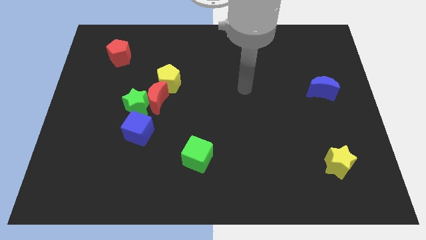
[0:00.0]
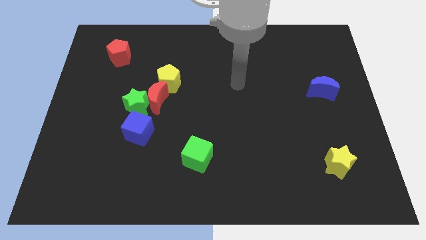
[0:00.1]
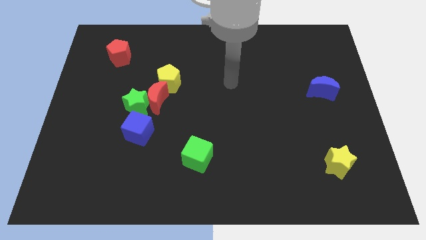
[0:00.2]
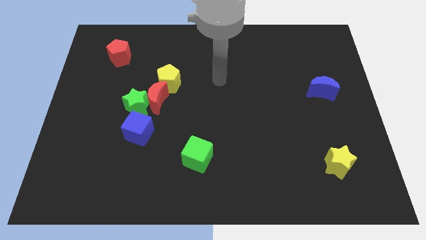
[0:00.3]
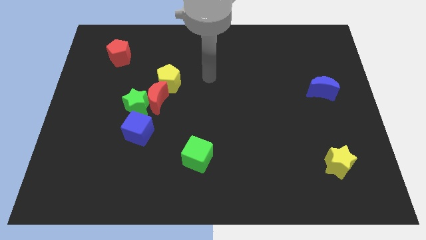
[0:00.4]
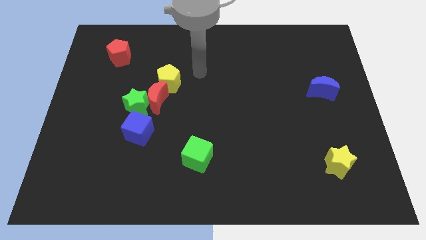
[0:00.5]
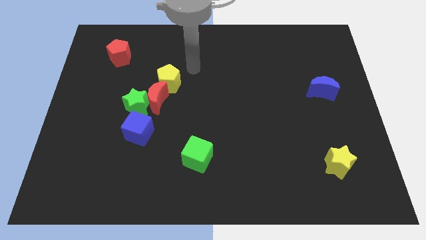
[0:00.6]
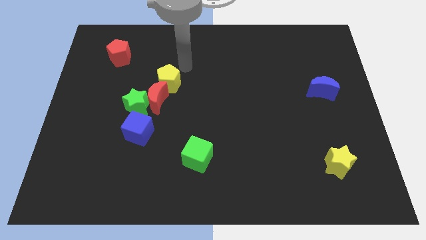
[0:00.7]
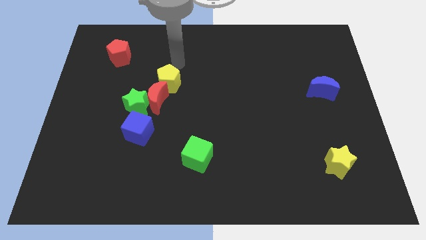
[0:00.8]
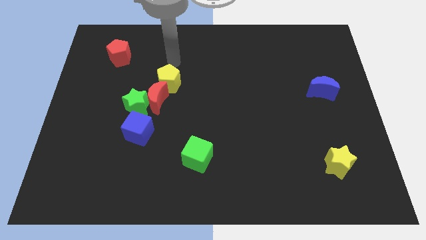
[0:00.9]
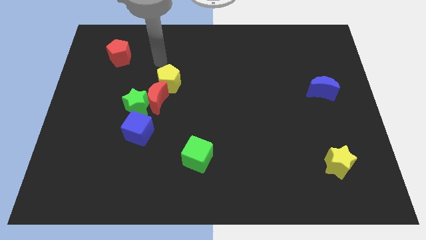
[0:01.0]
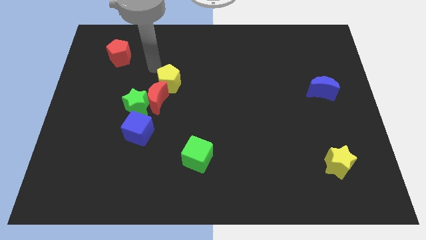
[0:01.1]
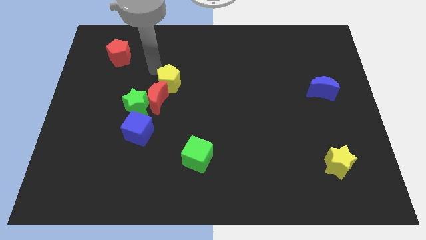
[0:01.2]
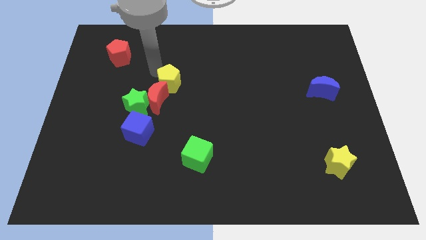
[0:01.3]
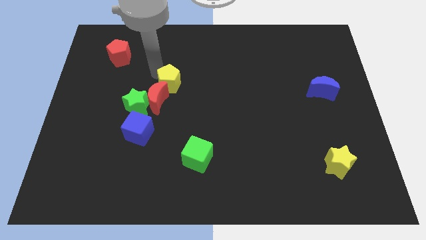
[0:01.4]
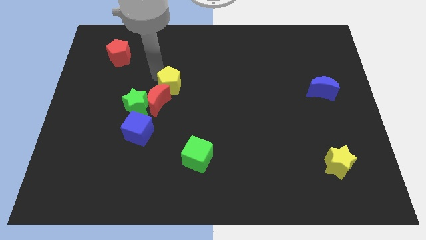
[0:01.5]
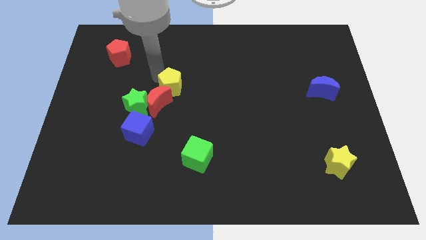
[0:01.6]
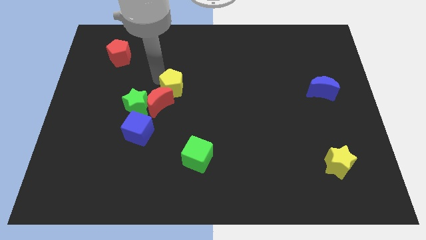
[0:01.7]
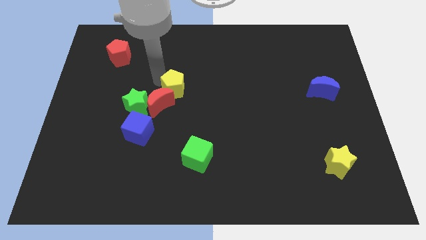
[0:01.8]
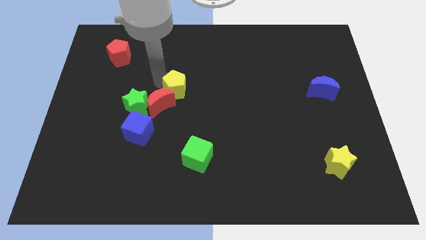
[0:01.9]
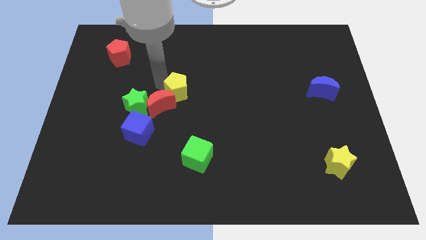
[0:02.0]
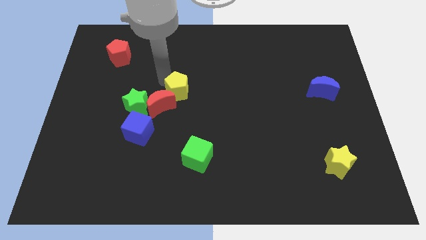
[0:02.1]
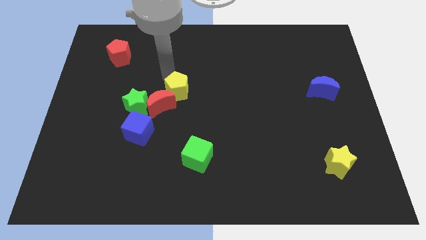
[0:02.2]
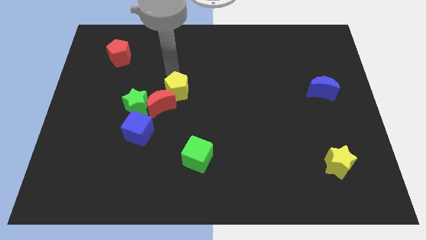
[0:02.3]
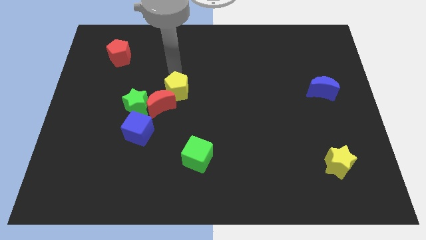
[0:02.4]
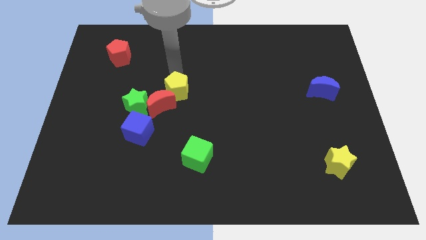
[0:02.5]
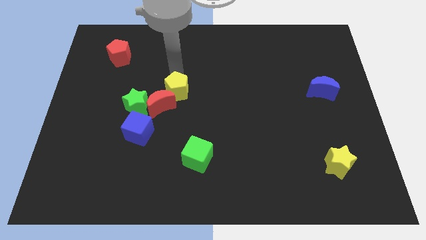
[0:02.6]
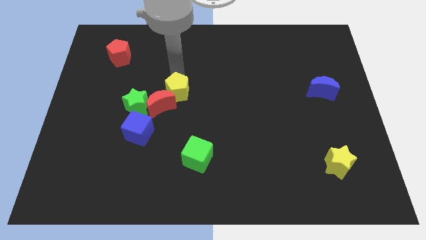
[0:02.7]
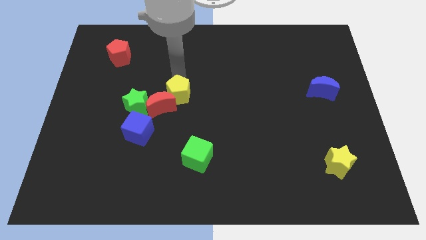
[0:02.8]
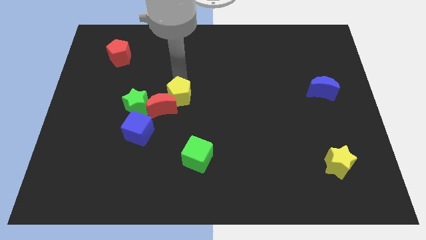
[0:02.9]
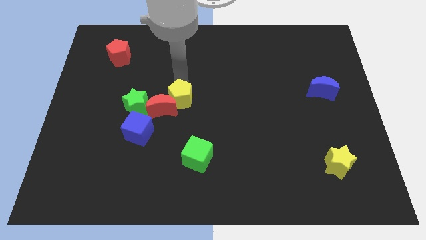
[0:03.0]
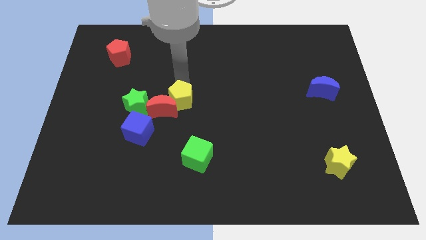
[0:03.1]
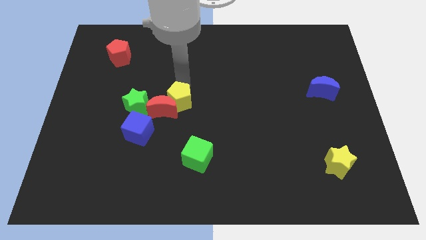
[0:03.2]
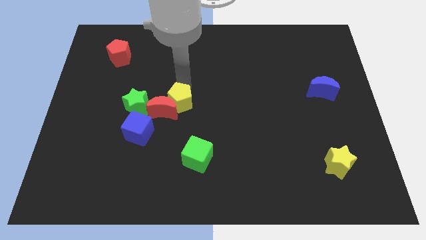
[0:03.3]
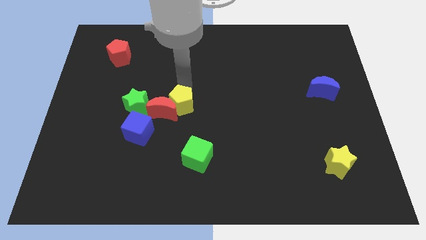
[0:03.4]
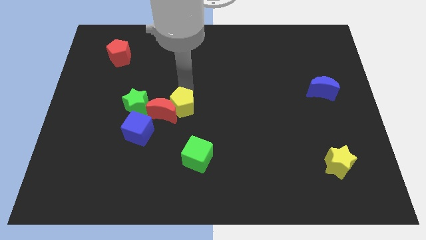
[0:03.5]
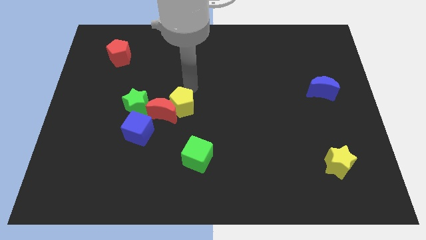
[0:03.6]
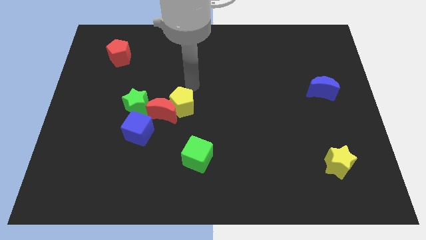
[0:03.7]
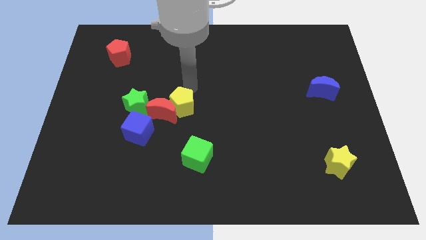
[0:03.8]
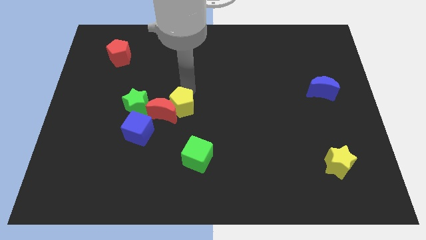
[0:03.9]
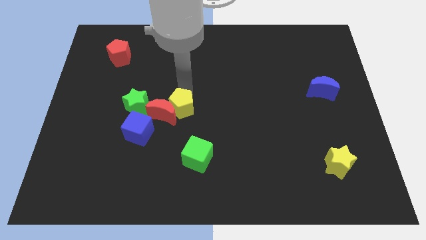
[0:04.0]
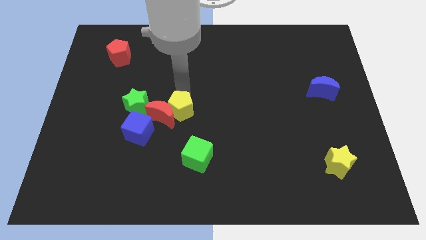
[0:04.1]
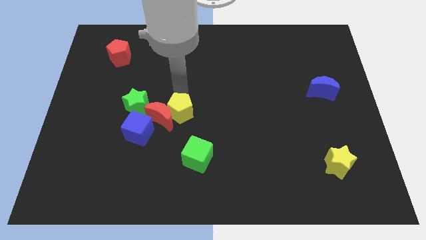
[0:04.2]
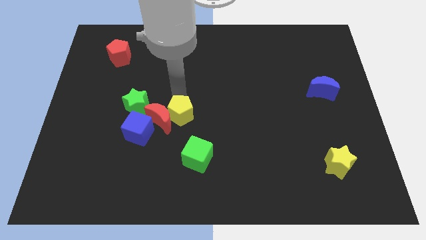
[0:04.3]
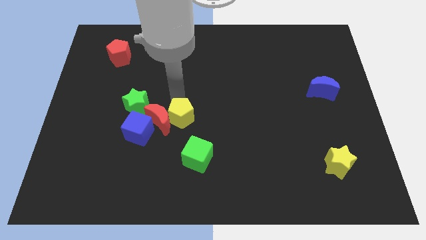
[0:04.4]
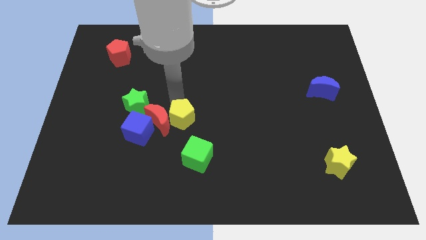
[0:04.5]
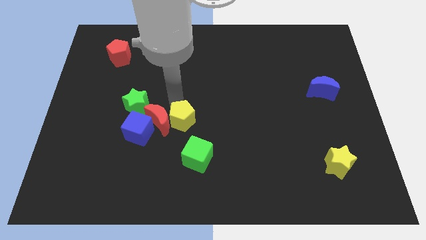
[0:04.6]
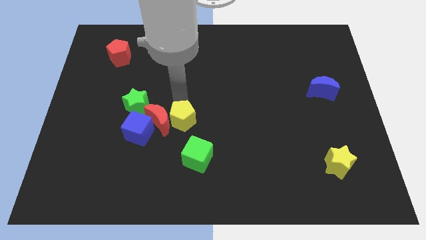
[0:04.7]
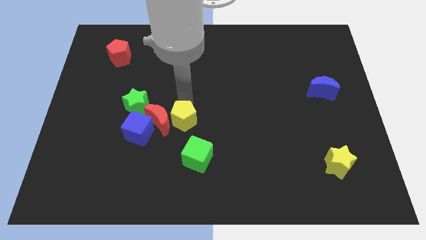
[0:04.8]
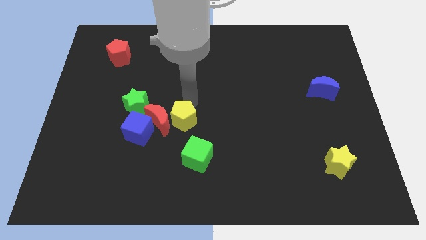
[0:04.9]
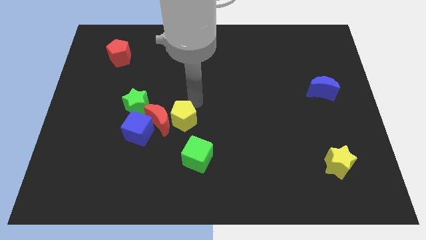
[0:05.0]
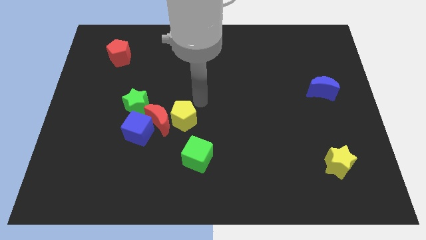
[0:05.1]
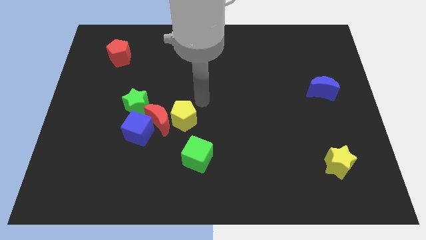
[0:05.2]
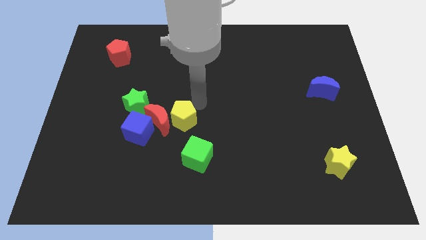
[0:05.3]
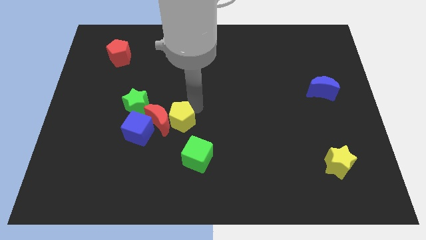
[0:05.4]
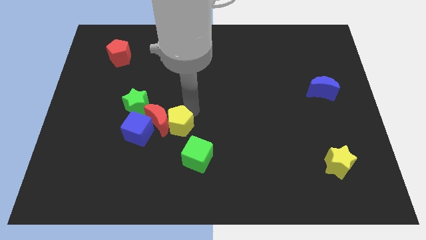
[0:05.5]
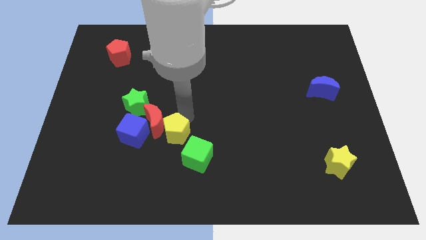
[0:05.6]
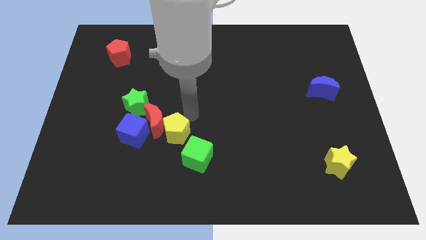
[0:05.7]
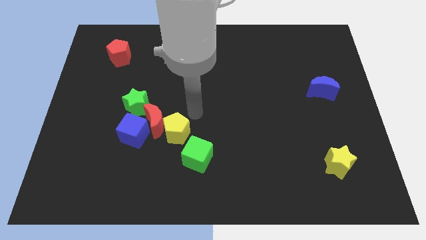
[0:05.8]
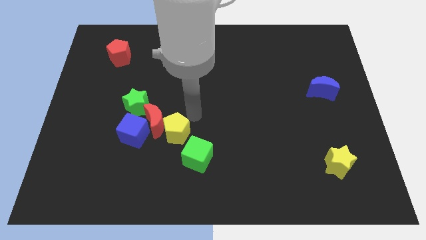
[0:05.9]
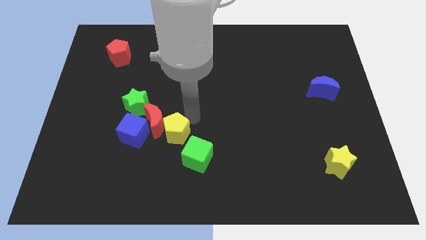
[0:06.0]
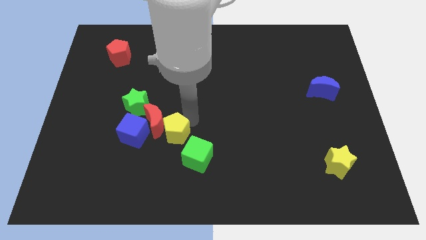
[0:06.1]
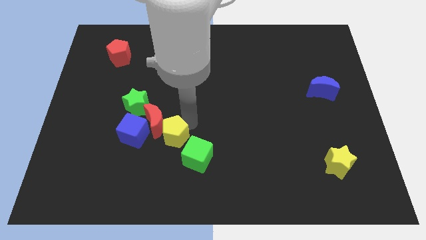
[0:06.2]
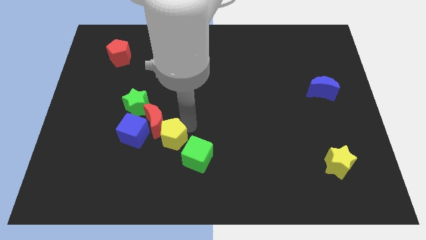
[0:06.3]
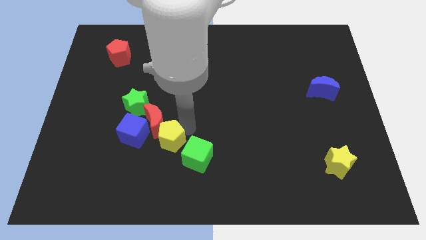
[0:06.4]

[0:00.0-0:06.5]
push the yellow pentagon to the bottom right side of the blue cube
